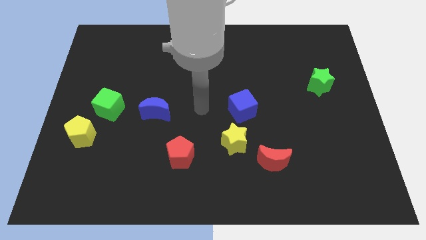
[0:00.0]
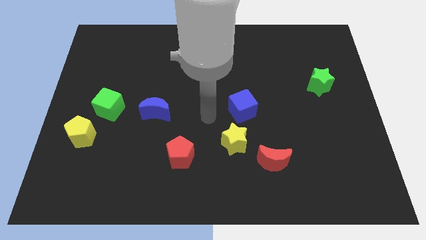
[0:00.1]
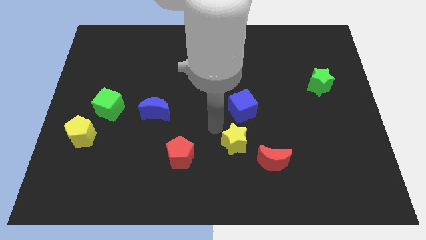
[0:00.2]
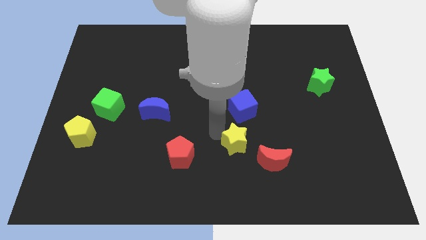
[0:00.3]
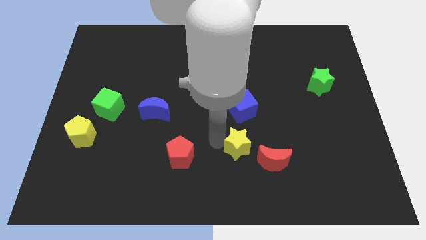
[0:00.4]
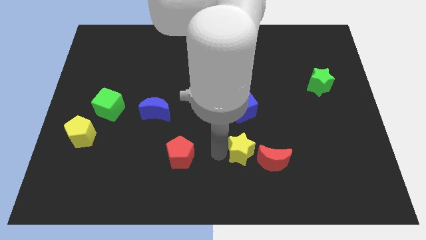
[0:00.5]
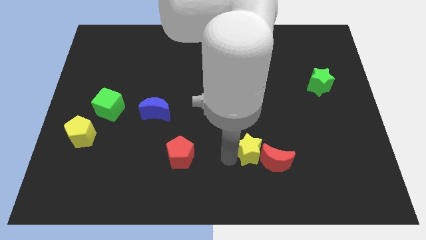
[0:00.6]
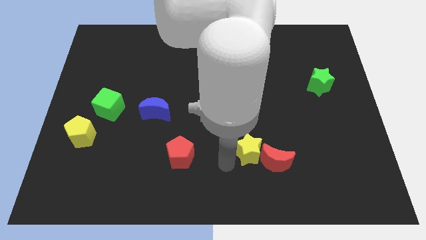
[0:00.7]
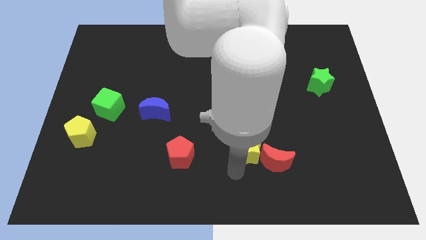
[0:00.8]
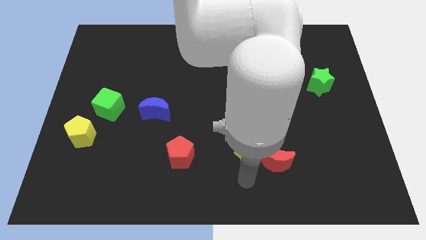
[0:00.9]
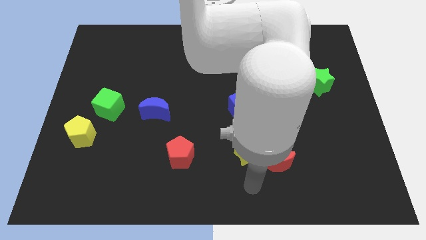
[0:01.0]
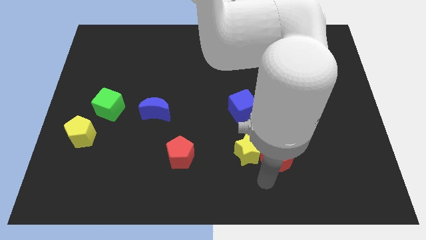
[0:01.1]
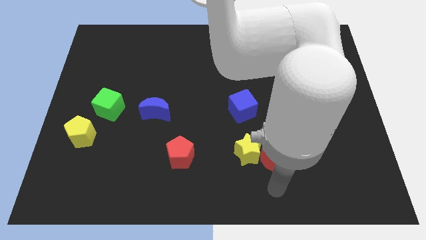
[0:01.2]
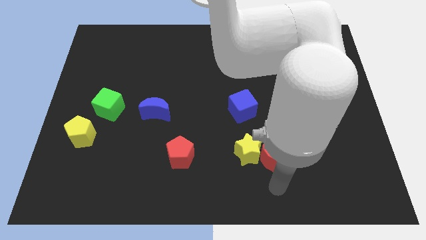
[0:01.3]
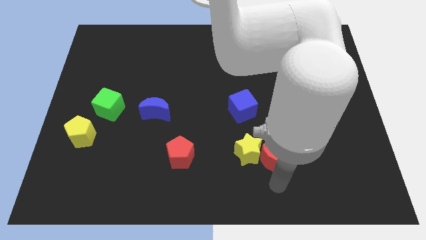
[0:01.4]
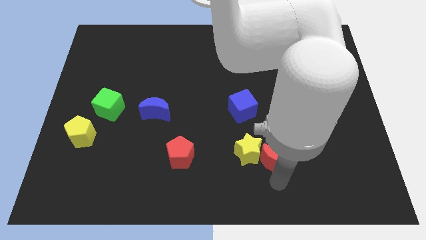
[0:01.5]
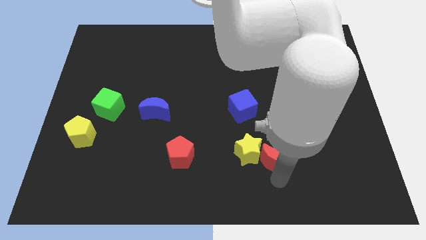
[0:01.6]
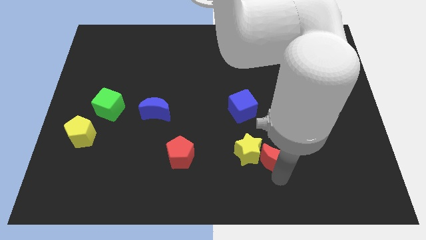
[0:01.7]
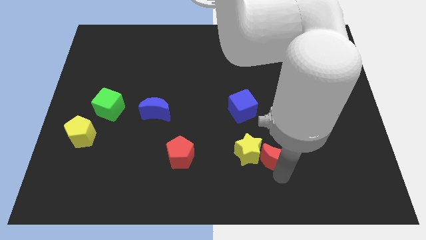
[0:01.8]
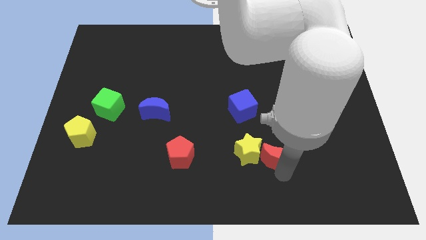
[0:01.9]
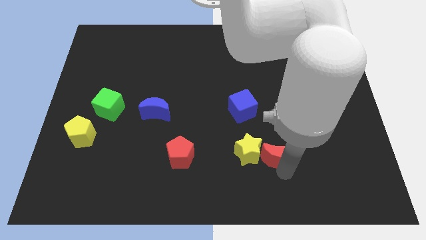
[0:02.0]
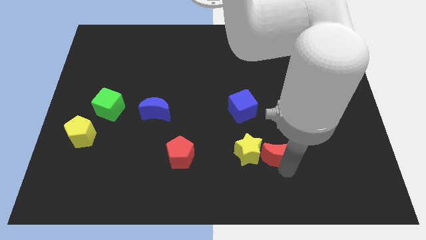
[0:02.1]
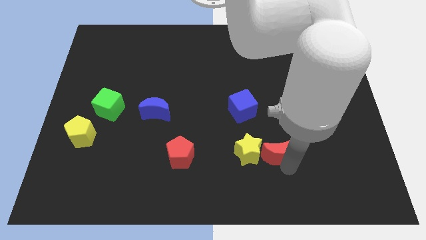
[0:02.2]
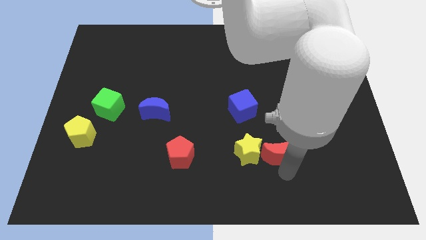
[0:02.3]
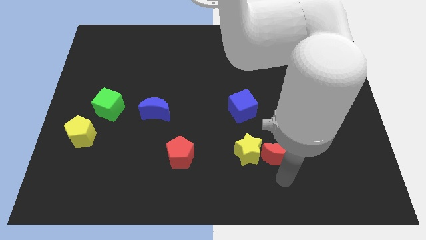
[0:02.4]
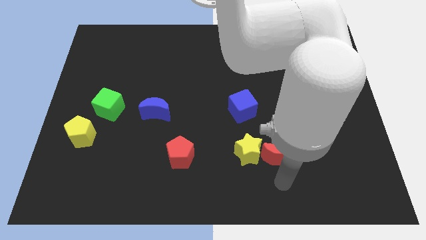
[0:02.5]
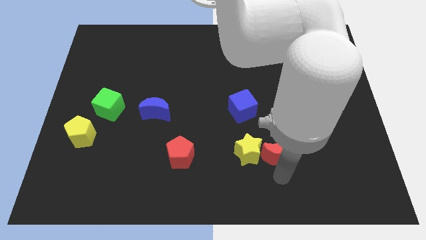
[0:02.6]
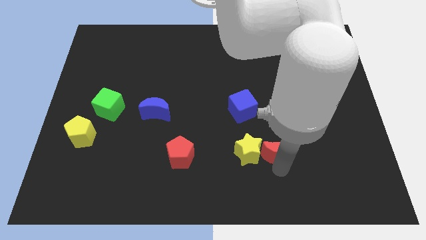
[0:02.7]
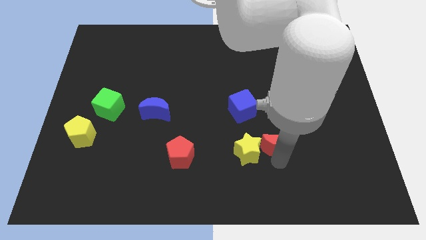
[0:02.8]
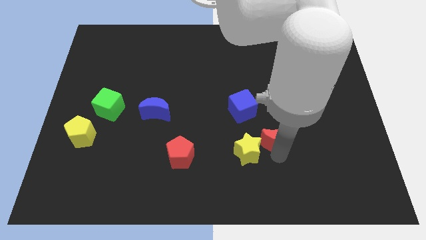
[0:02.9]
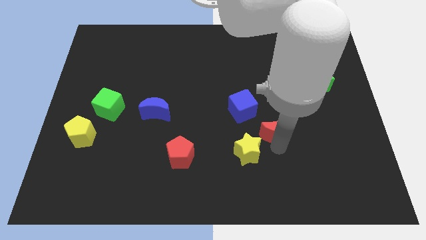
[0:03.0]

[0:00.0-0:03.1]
push the red moon somewhat up

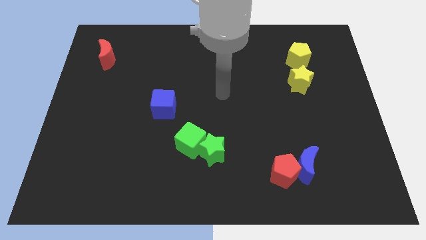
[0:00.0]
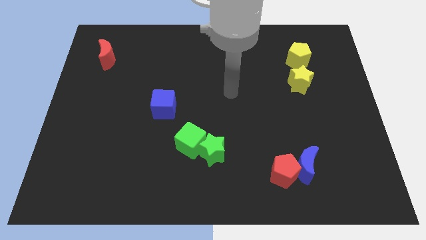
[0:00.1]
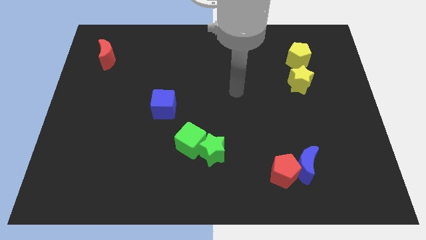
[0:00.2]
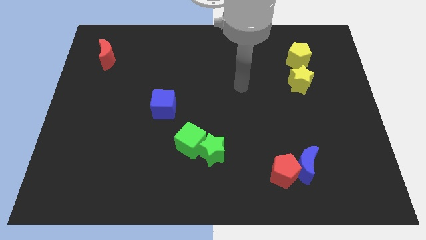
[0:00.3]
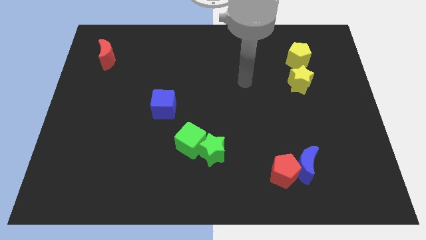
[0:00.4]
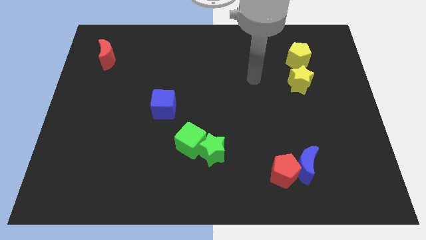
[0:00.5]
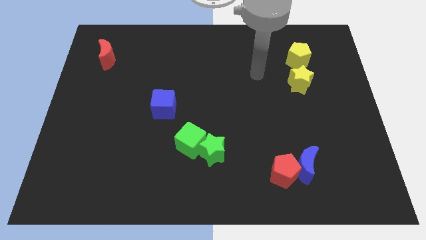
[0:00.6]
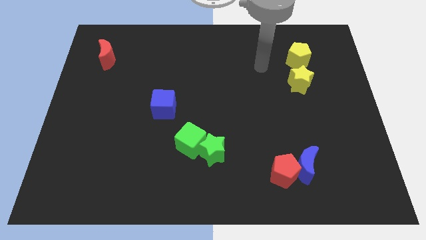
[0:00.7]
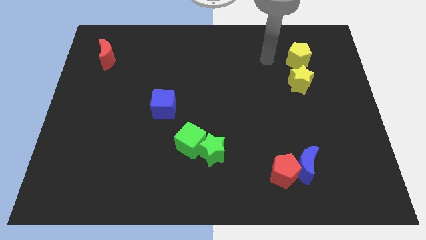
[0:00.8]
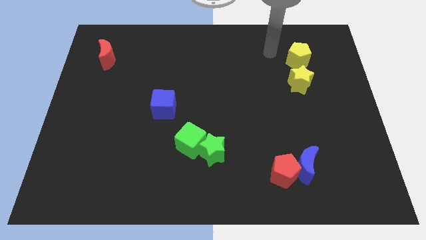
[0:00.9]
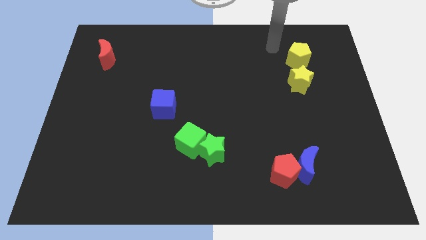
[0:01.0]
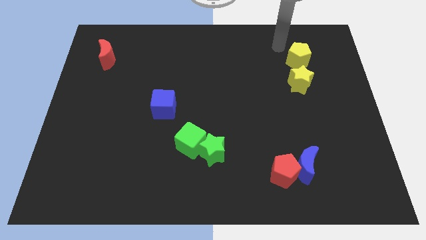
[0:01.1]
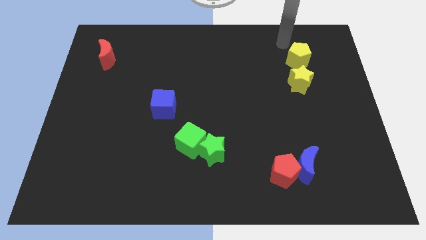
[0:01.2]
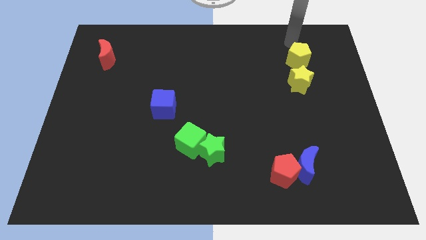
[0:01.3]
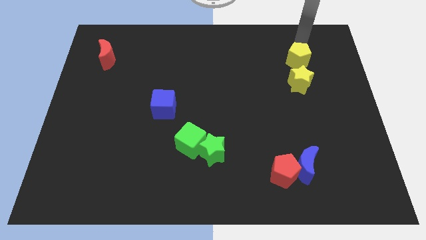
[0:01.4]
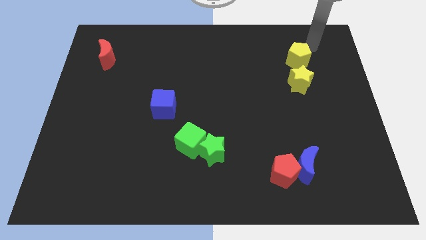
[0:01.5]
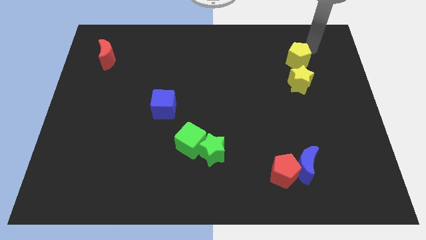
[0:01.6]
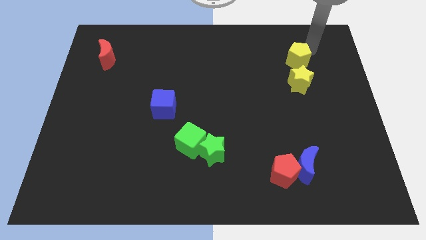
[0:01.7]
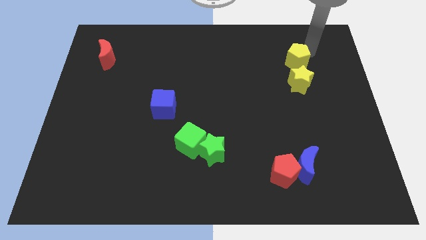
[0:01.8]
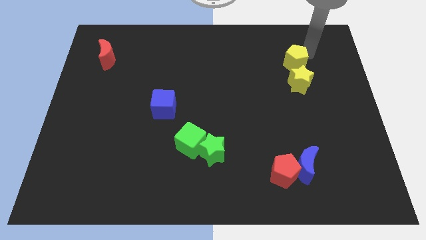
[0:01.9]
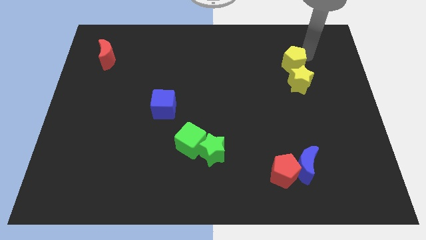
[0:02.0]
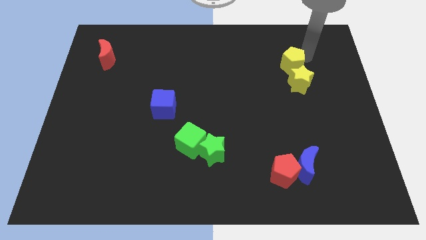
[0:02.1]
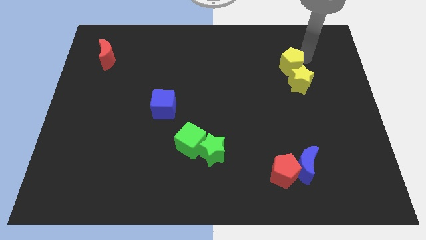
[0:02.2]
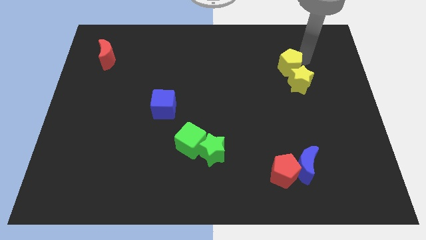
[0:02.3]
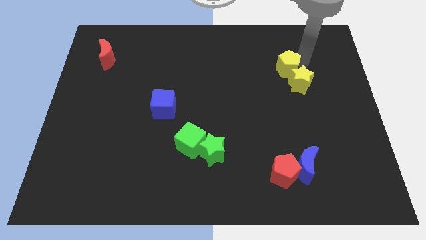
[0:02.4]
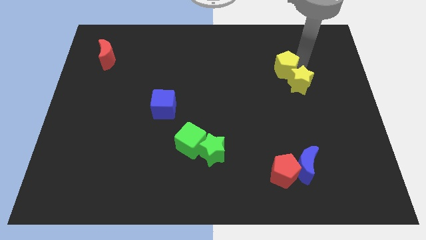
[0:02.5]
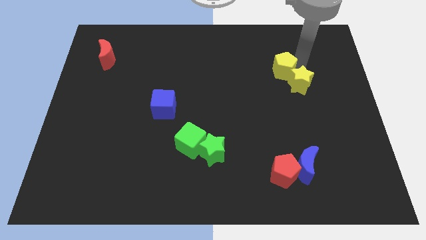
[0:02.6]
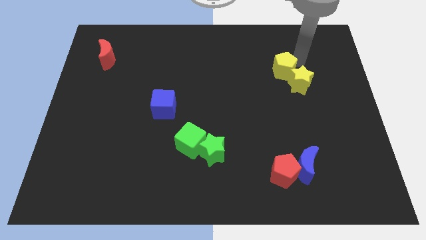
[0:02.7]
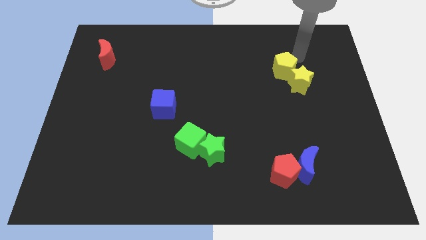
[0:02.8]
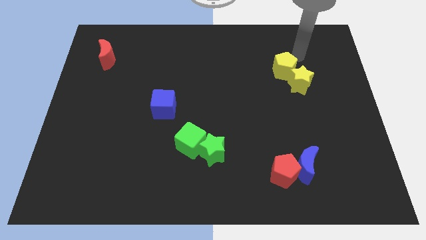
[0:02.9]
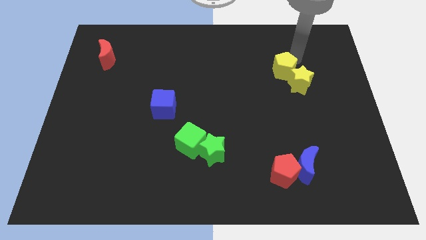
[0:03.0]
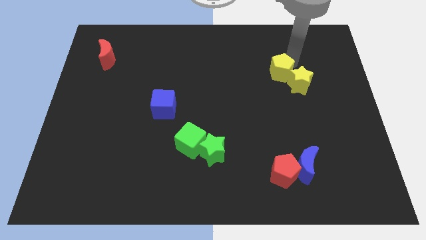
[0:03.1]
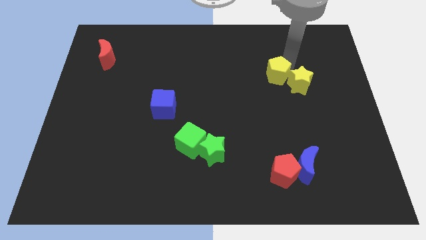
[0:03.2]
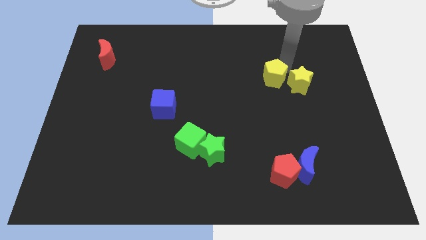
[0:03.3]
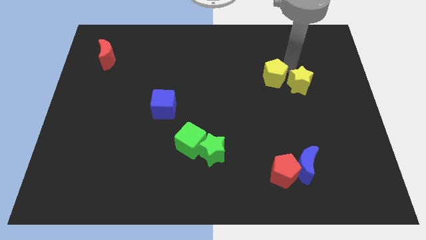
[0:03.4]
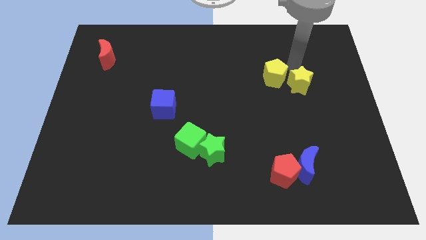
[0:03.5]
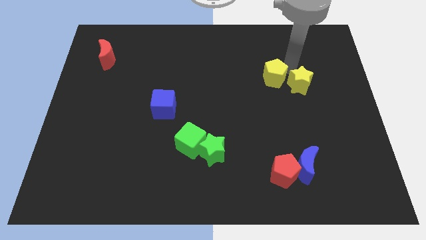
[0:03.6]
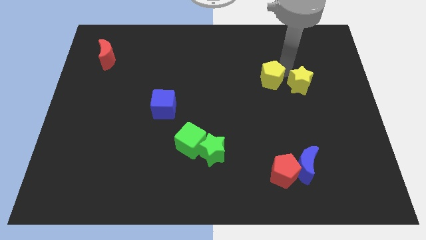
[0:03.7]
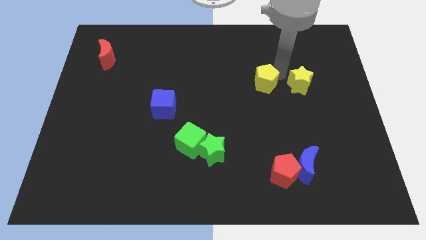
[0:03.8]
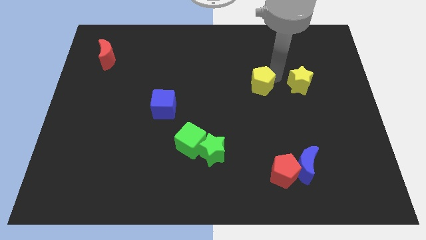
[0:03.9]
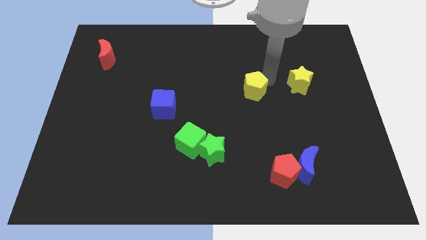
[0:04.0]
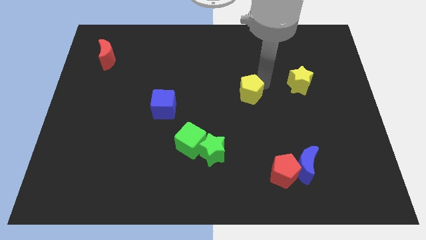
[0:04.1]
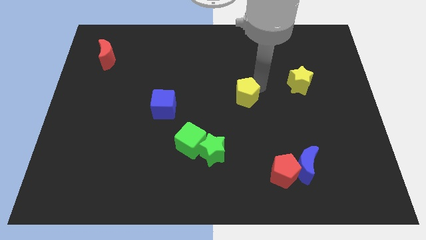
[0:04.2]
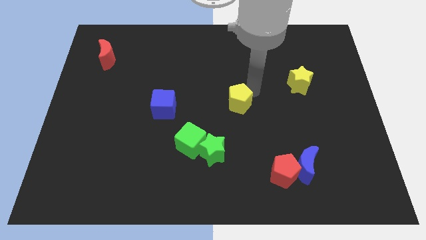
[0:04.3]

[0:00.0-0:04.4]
move the yellow pentagon down and then left

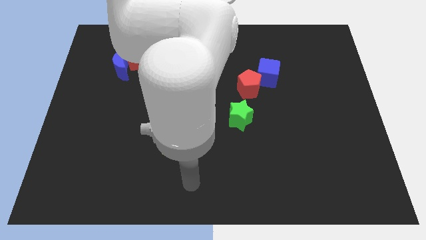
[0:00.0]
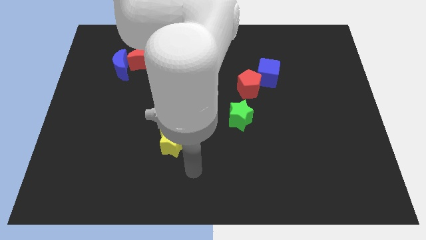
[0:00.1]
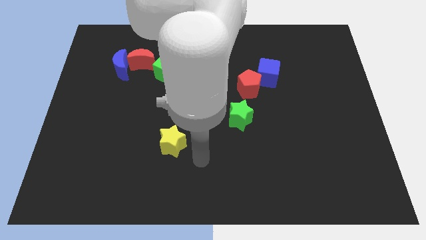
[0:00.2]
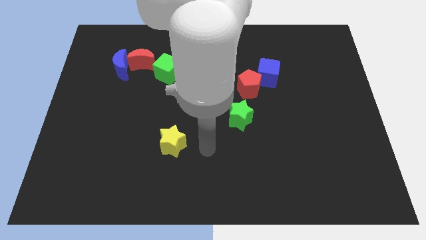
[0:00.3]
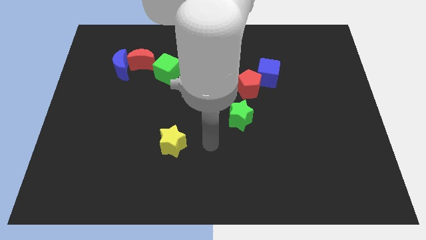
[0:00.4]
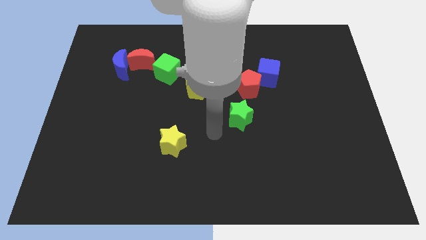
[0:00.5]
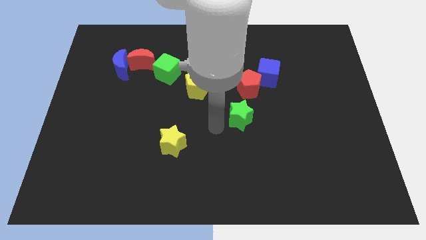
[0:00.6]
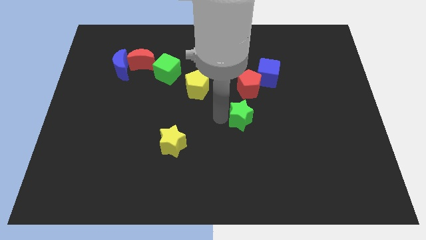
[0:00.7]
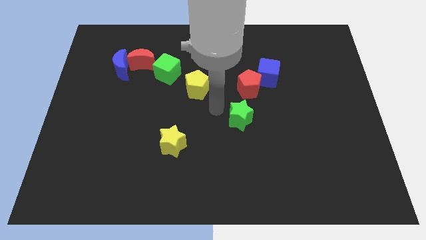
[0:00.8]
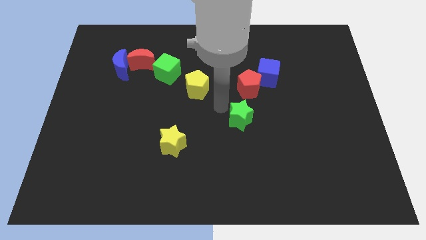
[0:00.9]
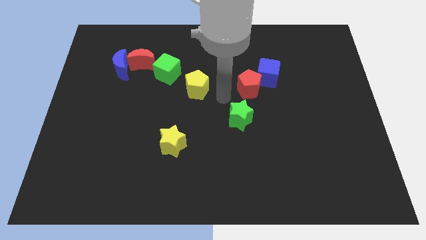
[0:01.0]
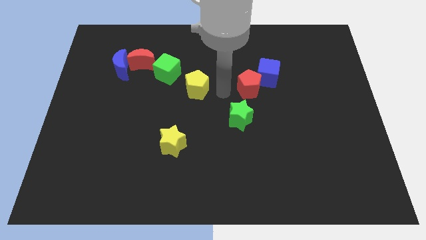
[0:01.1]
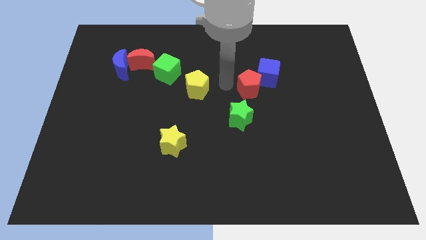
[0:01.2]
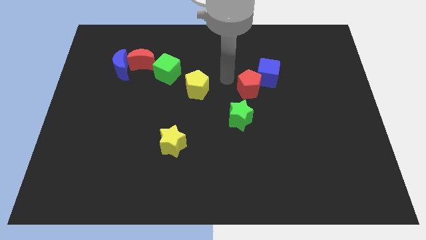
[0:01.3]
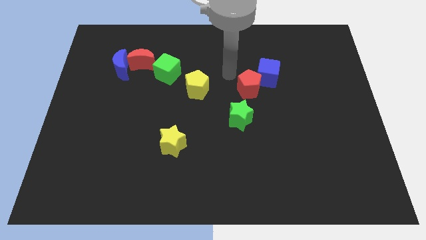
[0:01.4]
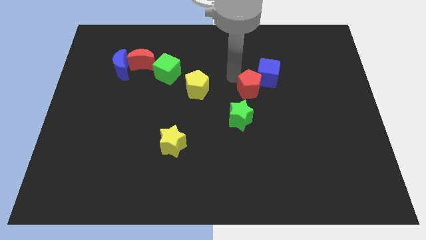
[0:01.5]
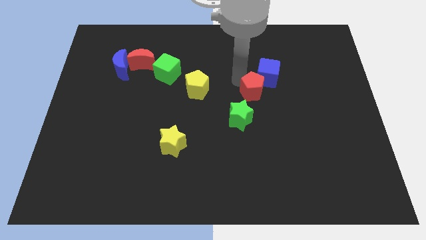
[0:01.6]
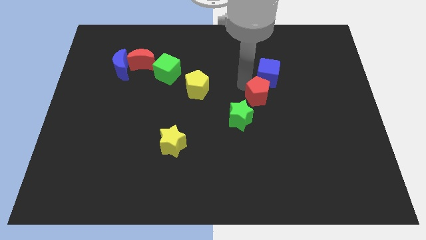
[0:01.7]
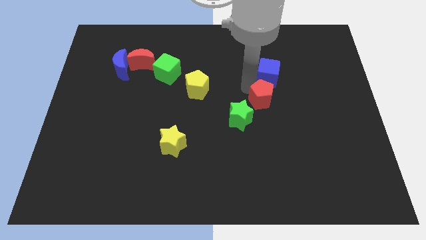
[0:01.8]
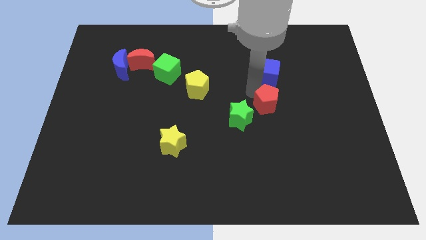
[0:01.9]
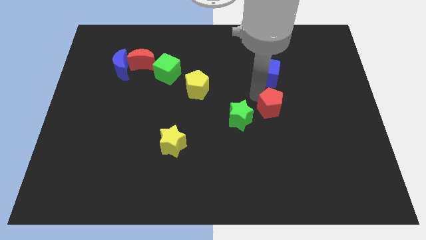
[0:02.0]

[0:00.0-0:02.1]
slide the red pentagon somewhat downwards and then to the right
